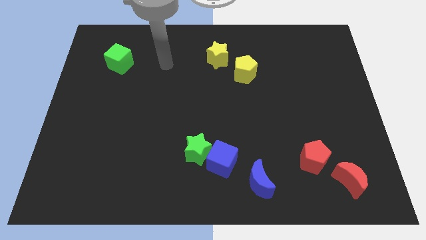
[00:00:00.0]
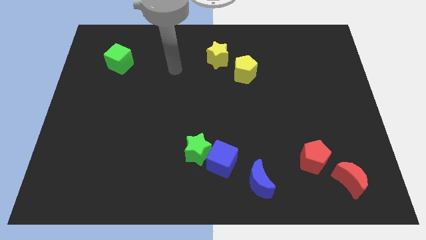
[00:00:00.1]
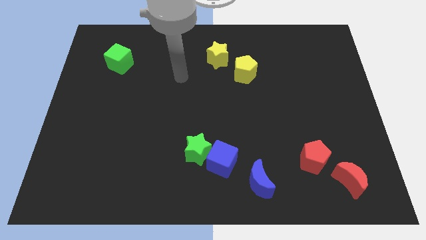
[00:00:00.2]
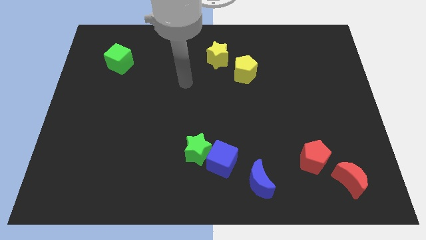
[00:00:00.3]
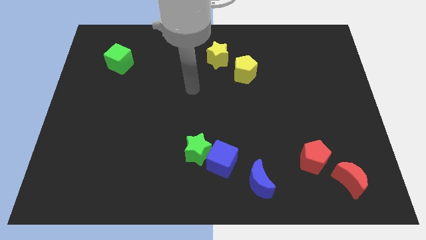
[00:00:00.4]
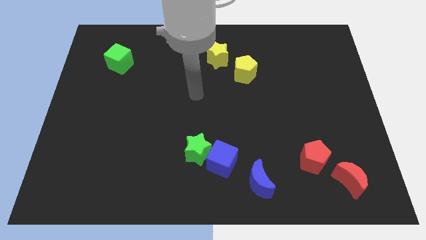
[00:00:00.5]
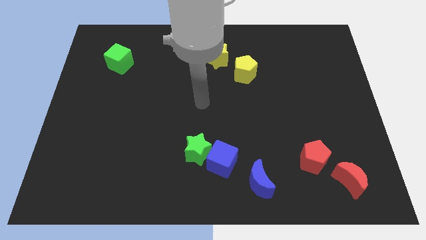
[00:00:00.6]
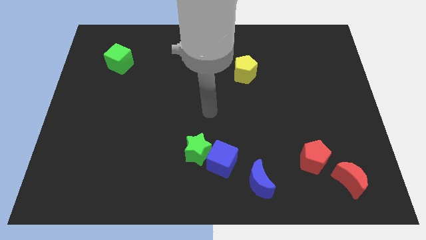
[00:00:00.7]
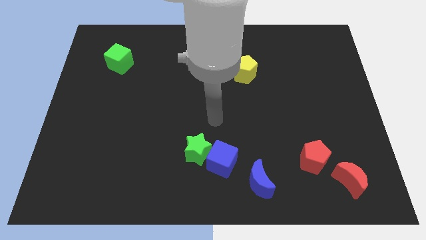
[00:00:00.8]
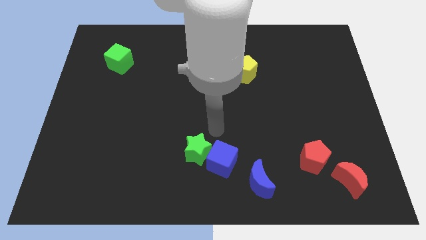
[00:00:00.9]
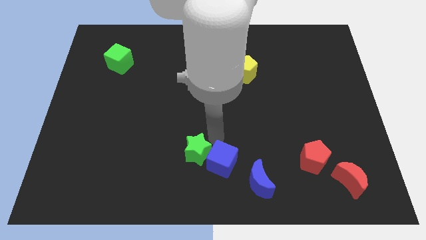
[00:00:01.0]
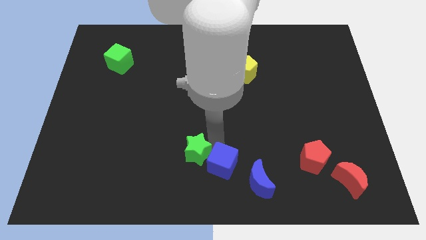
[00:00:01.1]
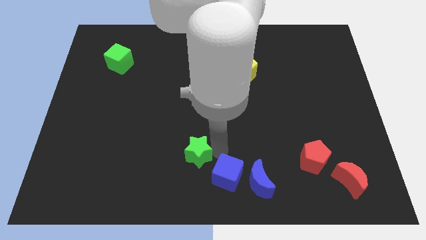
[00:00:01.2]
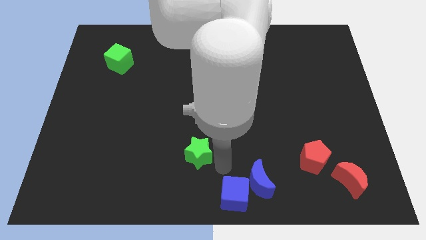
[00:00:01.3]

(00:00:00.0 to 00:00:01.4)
pull the green star apart from the blue cube

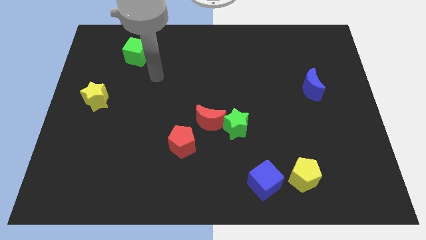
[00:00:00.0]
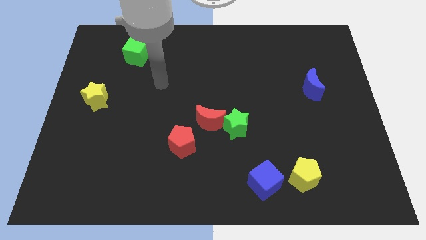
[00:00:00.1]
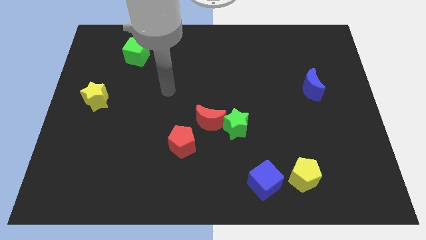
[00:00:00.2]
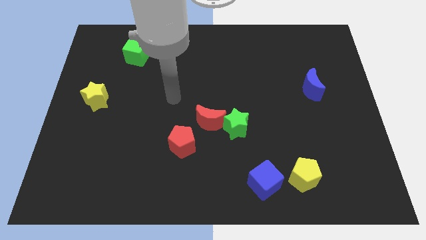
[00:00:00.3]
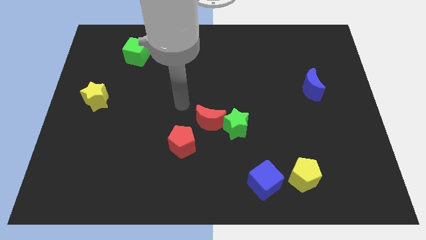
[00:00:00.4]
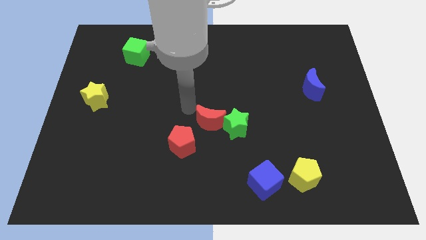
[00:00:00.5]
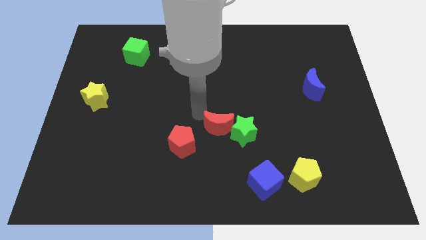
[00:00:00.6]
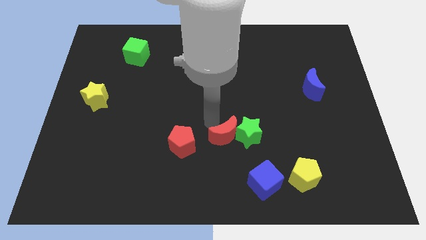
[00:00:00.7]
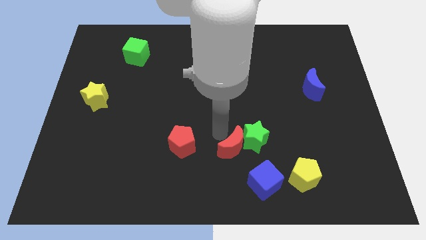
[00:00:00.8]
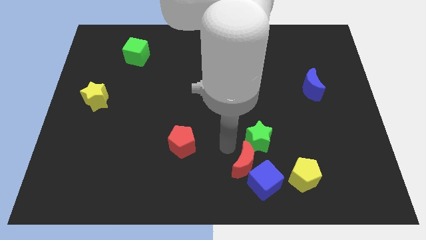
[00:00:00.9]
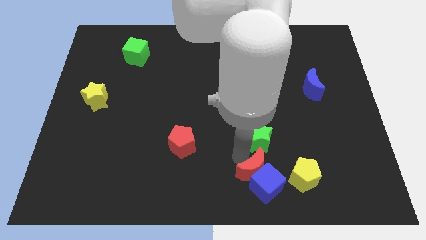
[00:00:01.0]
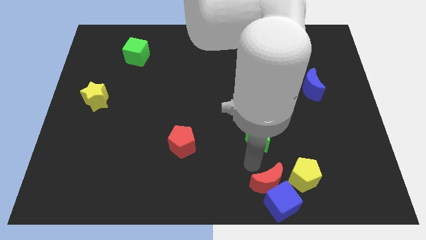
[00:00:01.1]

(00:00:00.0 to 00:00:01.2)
move the green star away from the red moon

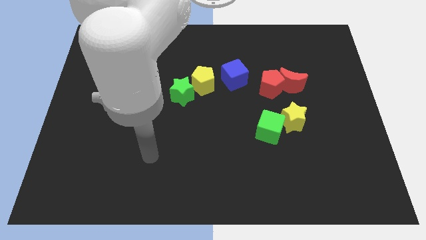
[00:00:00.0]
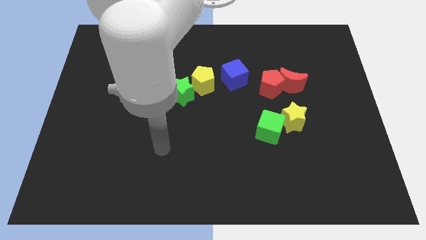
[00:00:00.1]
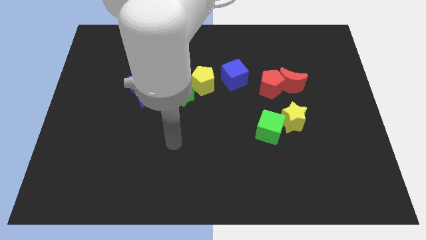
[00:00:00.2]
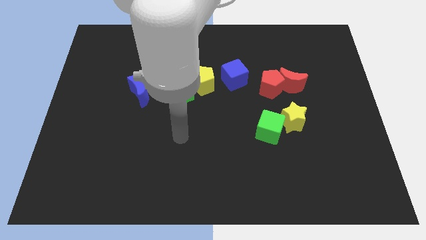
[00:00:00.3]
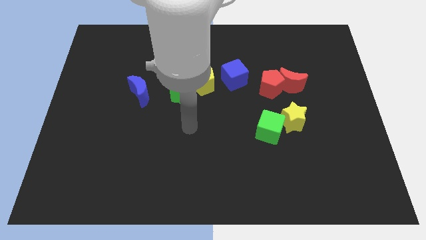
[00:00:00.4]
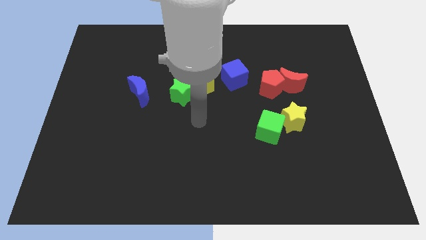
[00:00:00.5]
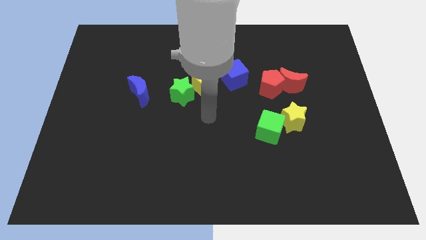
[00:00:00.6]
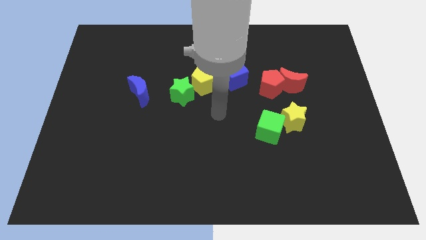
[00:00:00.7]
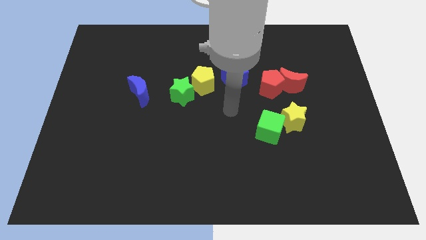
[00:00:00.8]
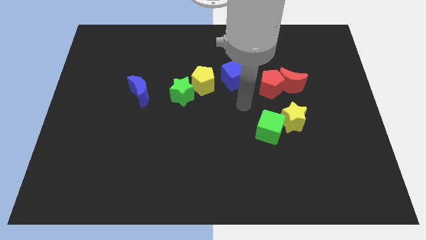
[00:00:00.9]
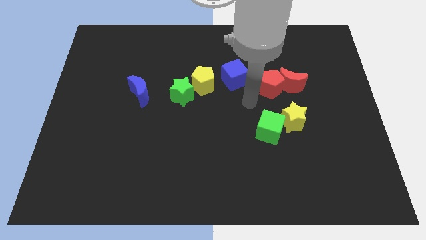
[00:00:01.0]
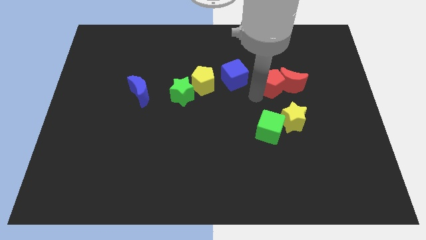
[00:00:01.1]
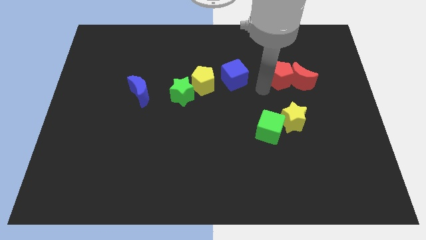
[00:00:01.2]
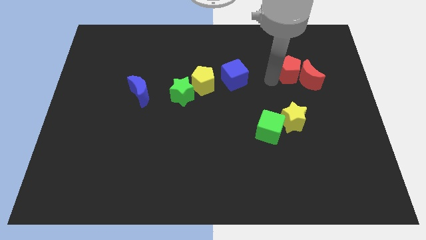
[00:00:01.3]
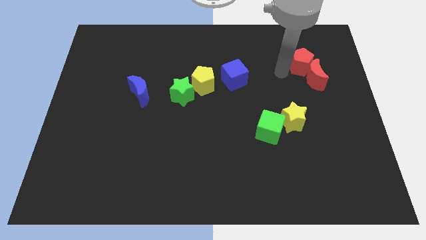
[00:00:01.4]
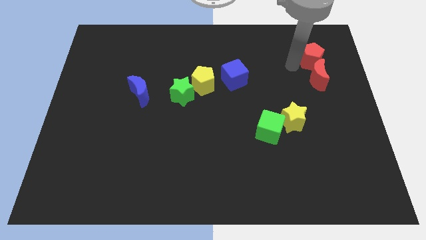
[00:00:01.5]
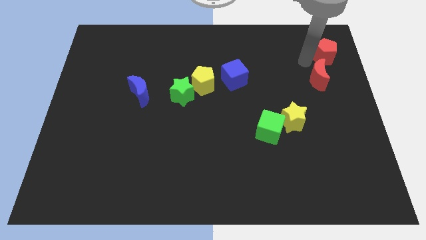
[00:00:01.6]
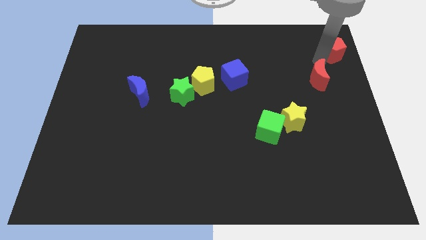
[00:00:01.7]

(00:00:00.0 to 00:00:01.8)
pull the red moon apart from the red pentagon

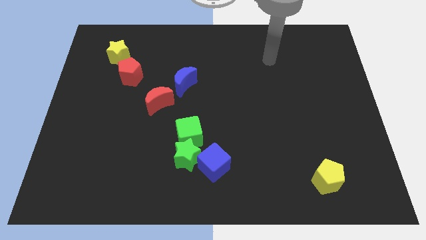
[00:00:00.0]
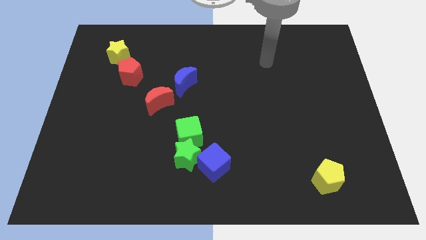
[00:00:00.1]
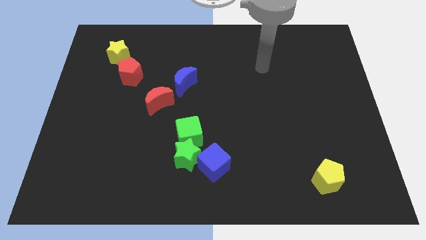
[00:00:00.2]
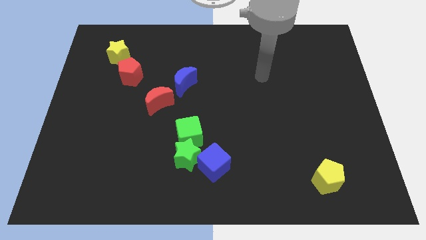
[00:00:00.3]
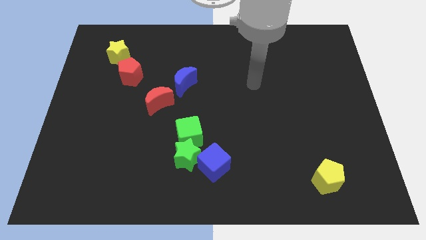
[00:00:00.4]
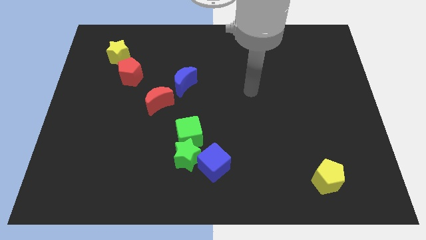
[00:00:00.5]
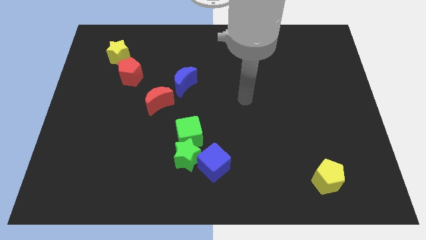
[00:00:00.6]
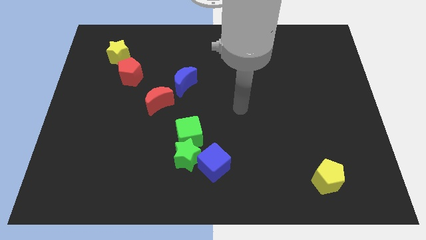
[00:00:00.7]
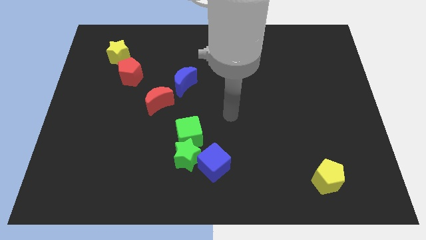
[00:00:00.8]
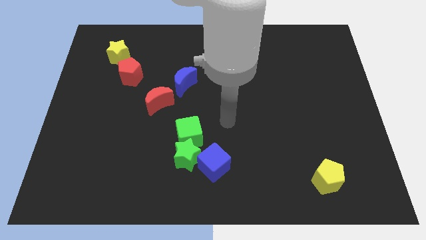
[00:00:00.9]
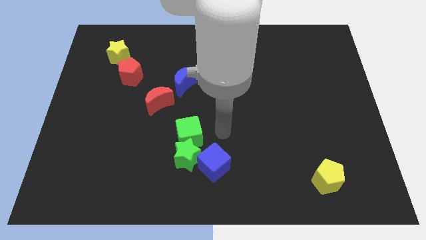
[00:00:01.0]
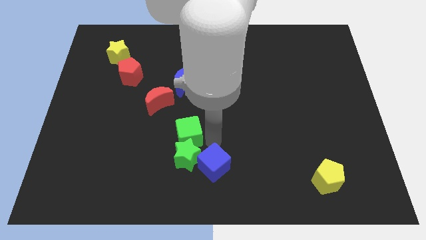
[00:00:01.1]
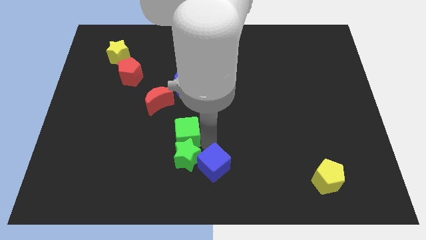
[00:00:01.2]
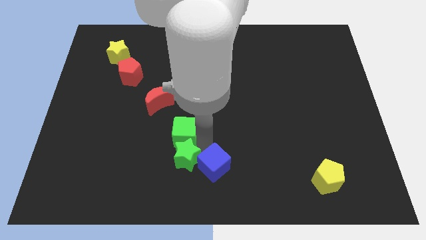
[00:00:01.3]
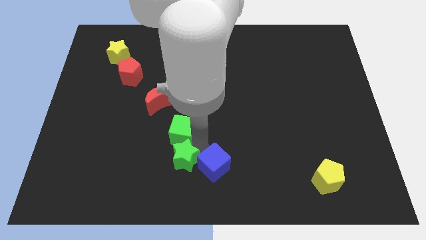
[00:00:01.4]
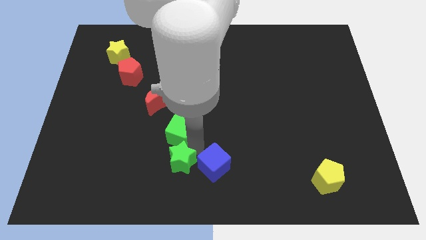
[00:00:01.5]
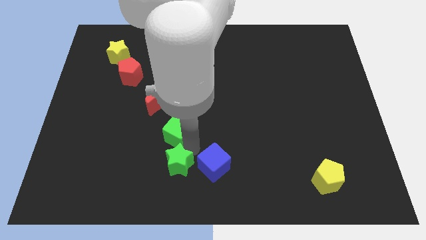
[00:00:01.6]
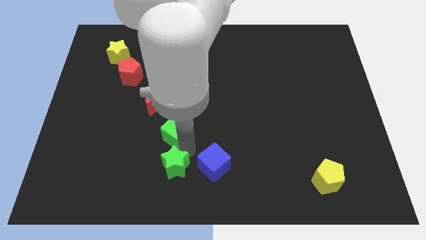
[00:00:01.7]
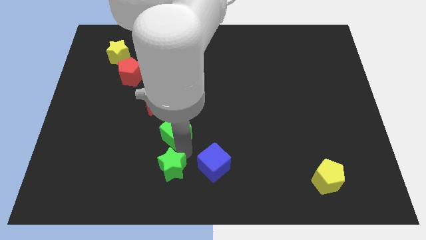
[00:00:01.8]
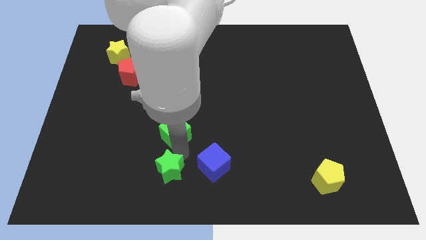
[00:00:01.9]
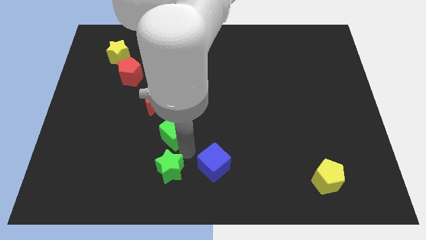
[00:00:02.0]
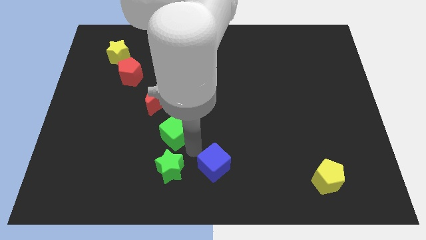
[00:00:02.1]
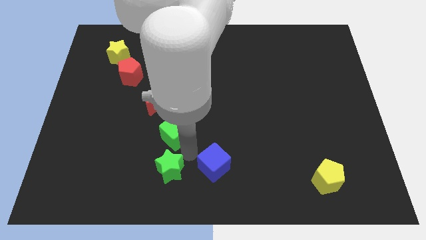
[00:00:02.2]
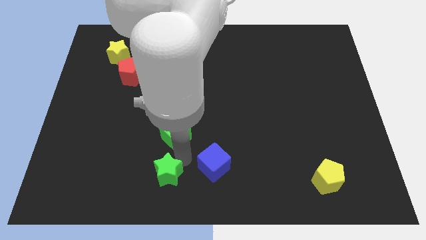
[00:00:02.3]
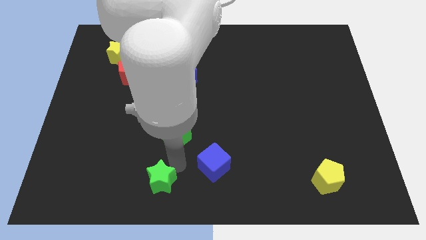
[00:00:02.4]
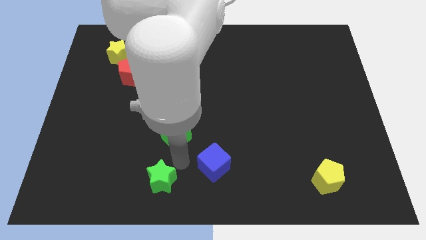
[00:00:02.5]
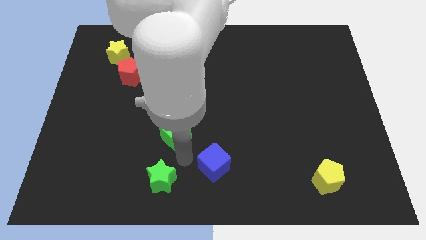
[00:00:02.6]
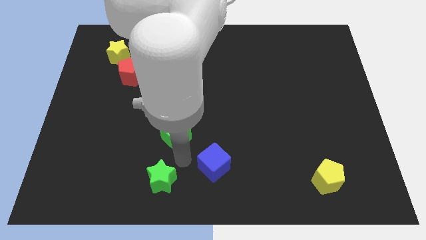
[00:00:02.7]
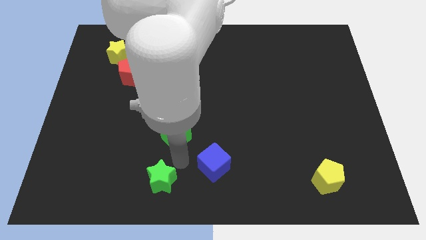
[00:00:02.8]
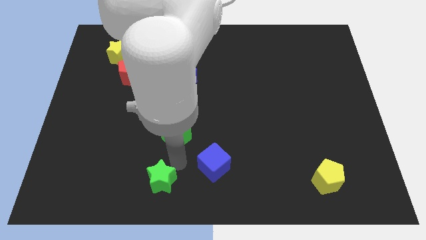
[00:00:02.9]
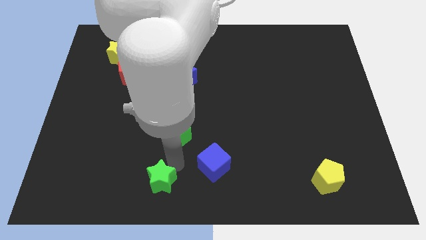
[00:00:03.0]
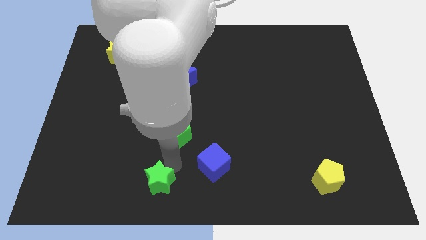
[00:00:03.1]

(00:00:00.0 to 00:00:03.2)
pull the green star apart from the blue cube and green cube

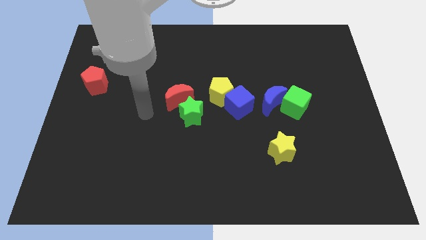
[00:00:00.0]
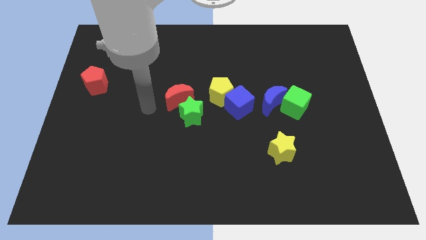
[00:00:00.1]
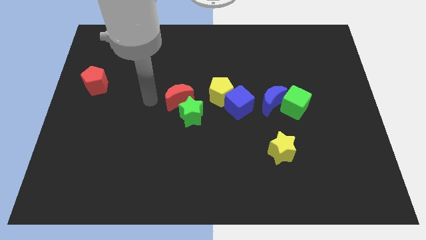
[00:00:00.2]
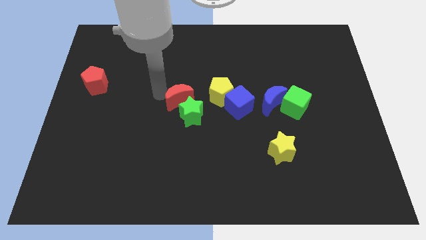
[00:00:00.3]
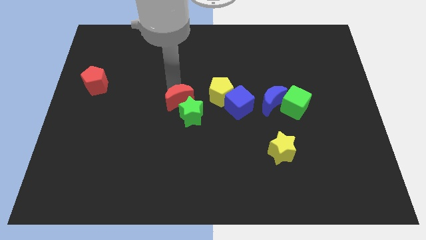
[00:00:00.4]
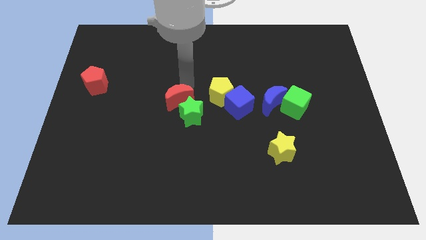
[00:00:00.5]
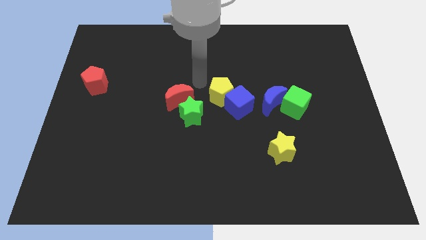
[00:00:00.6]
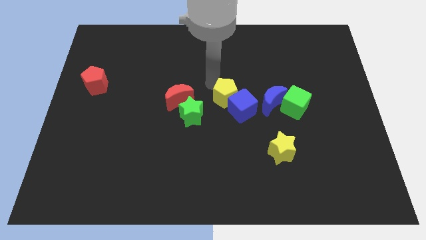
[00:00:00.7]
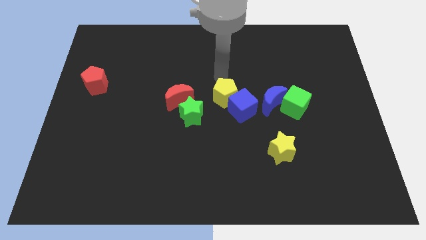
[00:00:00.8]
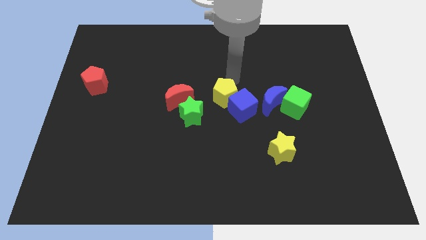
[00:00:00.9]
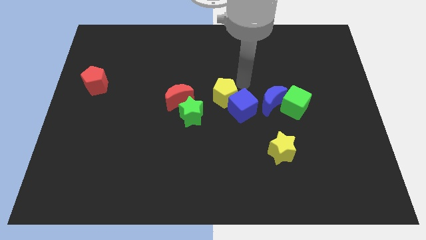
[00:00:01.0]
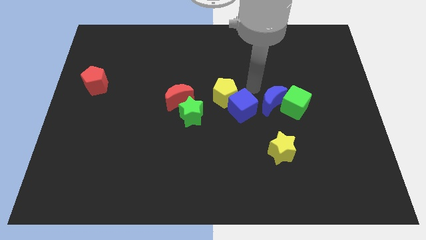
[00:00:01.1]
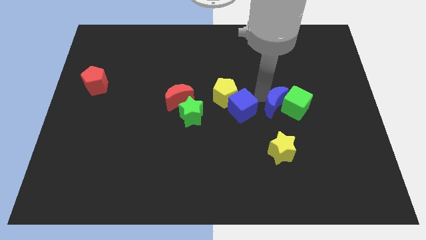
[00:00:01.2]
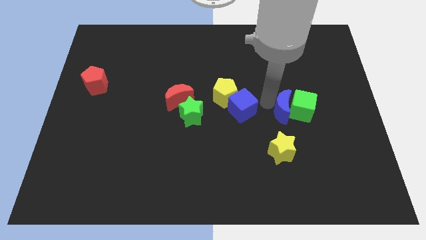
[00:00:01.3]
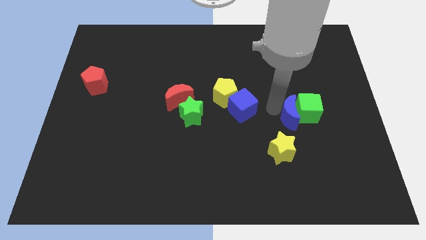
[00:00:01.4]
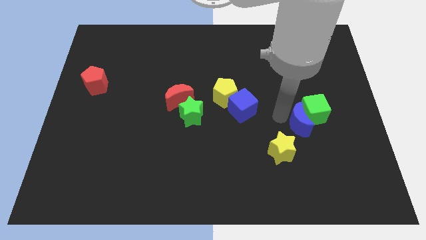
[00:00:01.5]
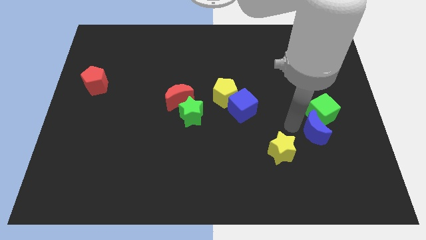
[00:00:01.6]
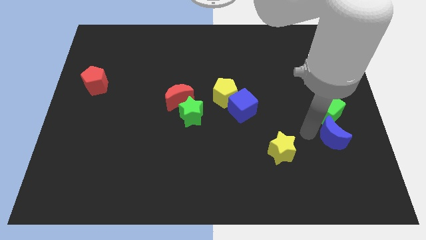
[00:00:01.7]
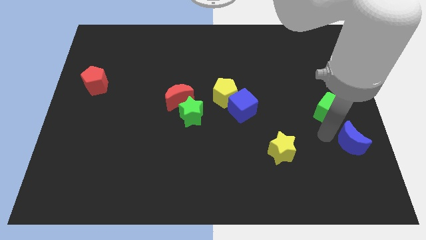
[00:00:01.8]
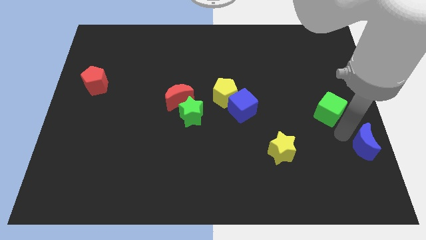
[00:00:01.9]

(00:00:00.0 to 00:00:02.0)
pull the green cube apart from the blue moon
